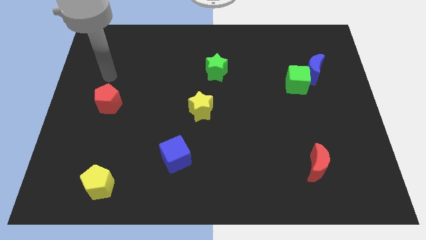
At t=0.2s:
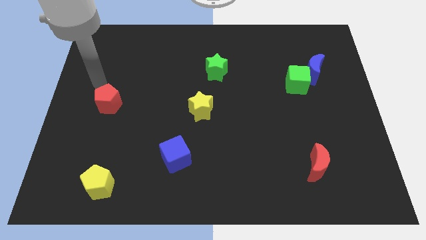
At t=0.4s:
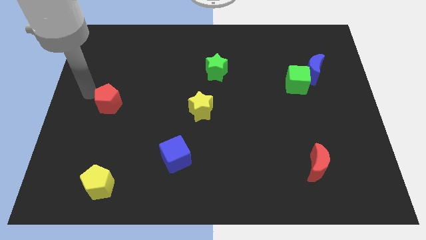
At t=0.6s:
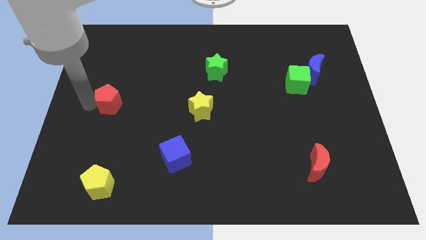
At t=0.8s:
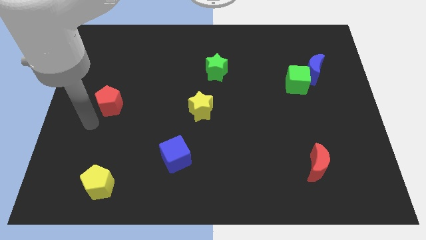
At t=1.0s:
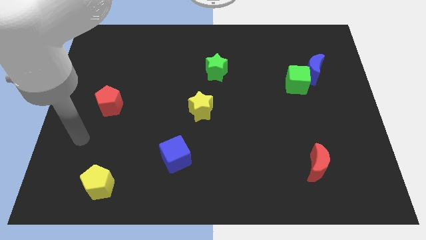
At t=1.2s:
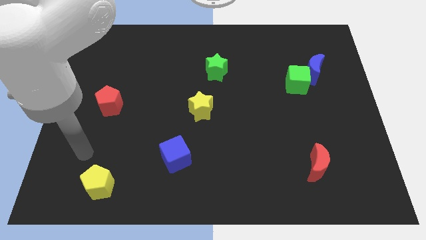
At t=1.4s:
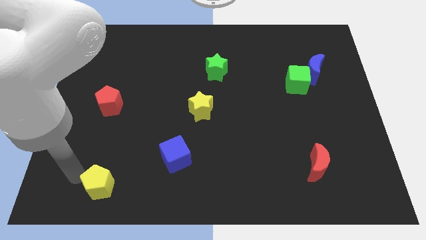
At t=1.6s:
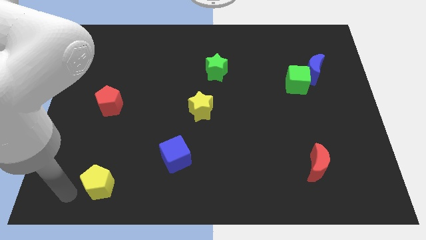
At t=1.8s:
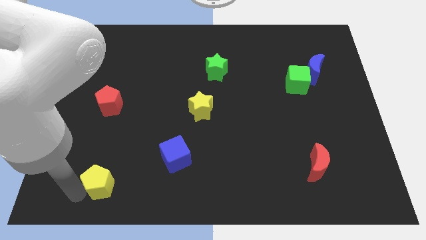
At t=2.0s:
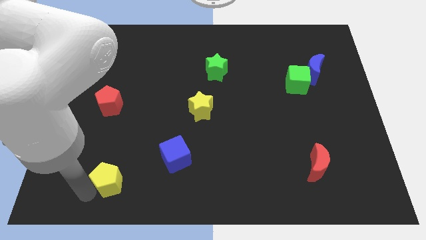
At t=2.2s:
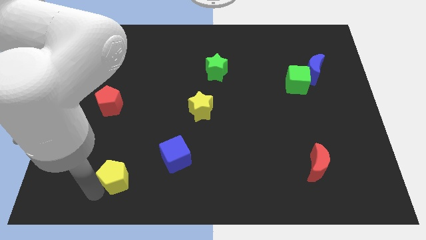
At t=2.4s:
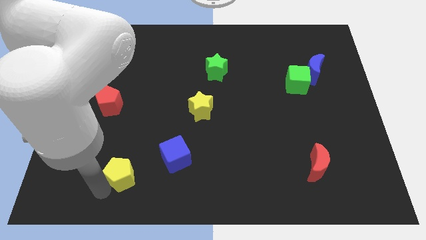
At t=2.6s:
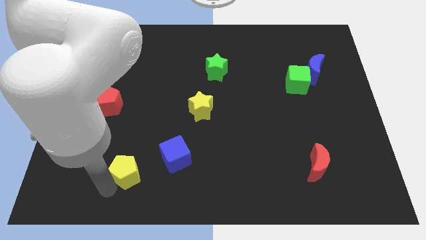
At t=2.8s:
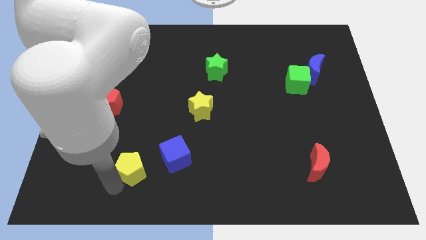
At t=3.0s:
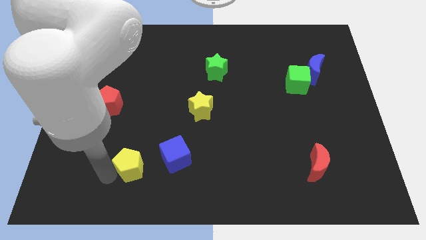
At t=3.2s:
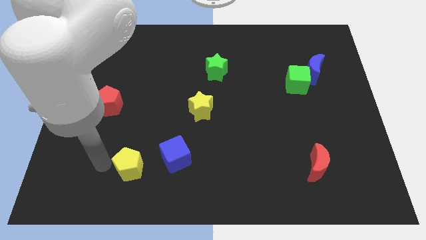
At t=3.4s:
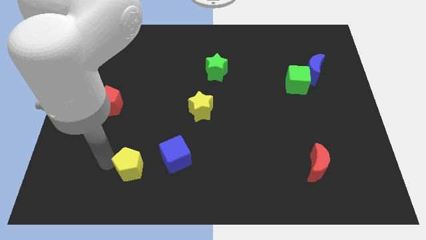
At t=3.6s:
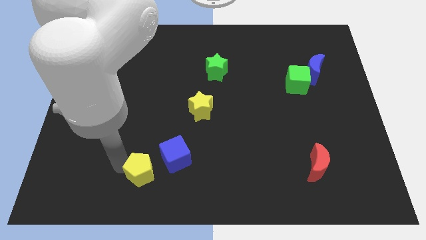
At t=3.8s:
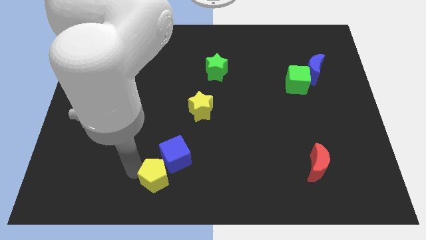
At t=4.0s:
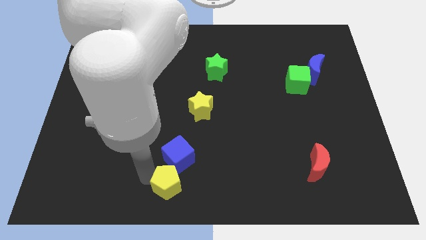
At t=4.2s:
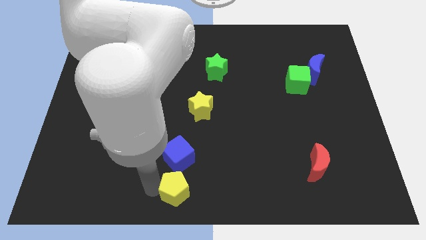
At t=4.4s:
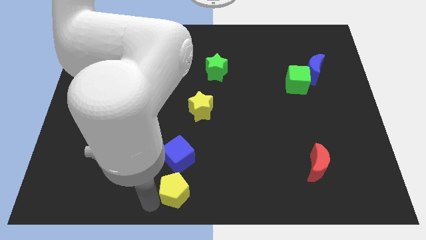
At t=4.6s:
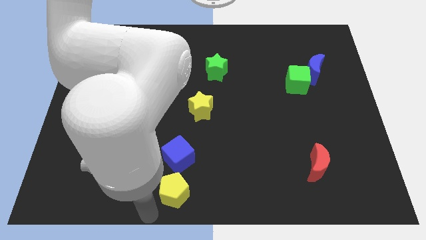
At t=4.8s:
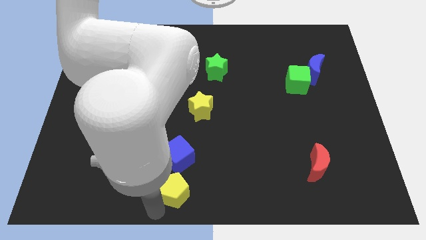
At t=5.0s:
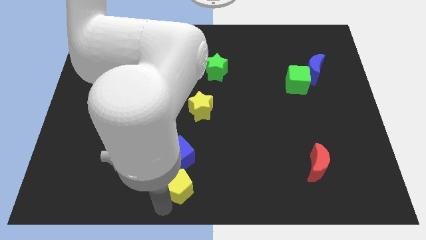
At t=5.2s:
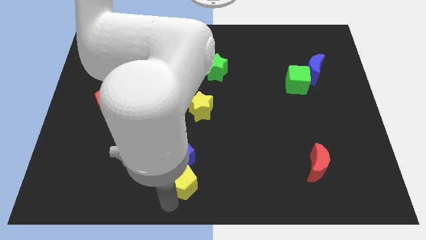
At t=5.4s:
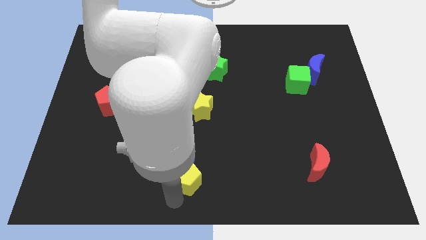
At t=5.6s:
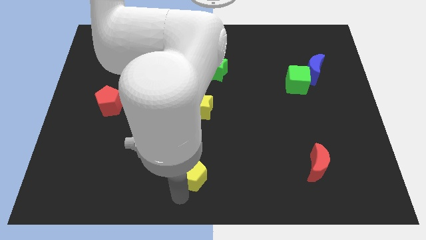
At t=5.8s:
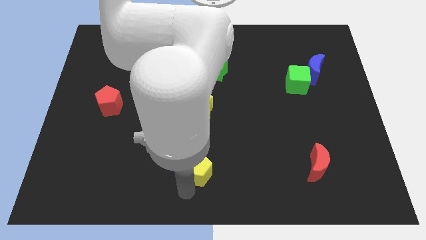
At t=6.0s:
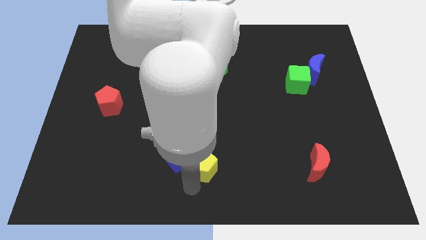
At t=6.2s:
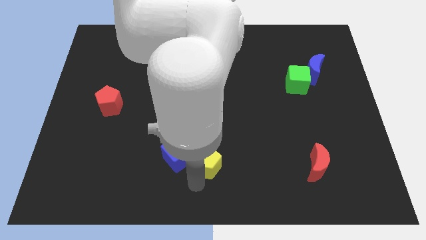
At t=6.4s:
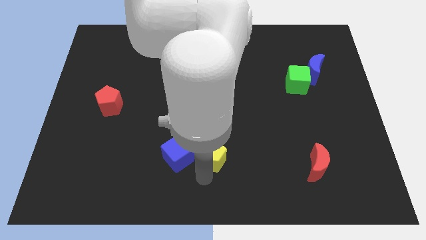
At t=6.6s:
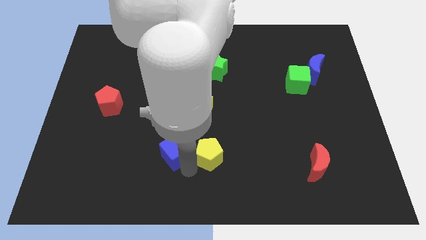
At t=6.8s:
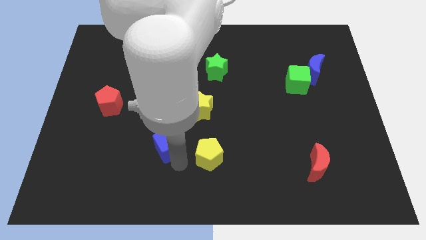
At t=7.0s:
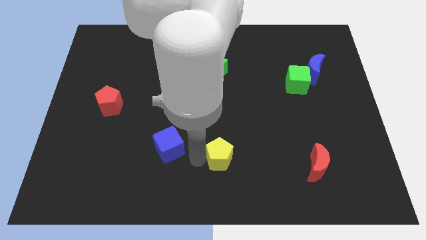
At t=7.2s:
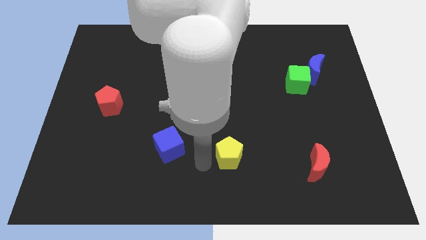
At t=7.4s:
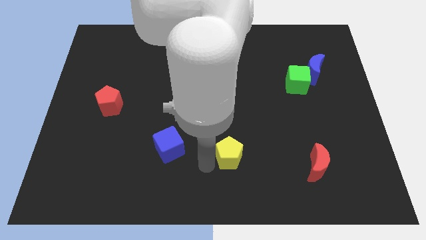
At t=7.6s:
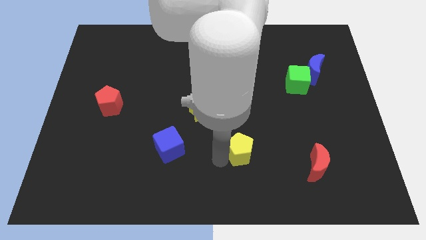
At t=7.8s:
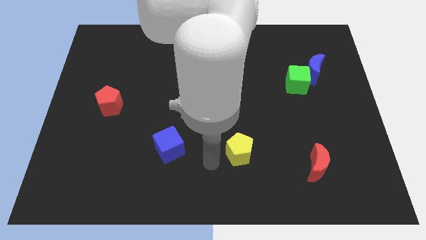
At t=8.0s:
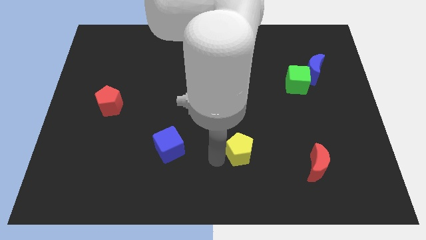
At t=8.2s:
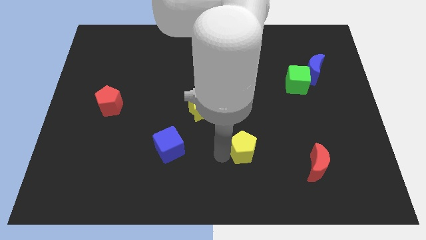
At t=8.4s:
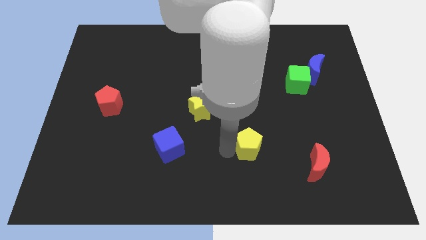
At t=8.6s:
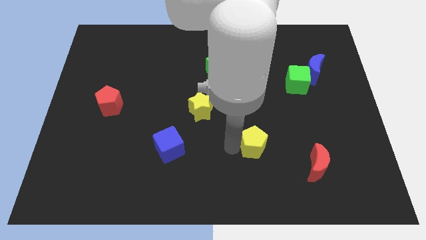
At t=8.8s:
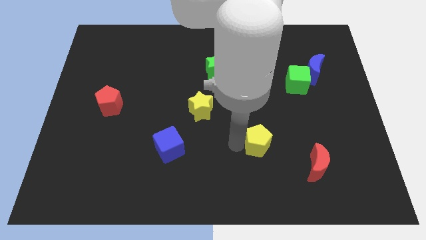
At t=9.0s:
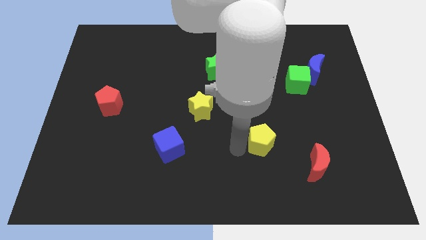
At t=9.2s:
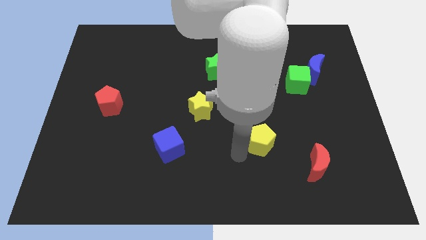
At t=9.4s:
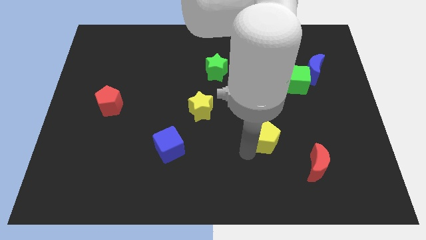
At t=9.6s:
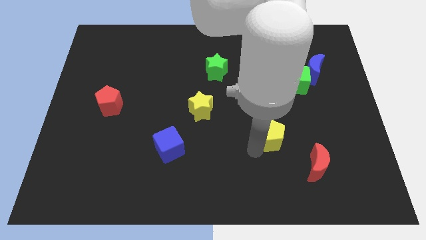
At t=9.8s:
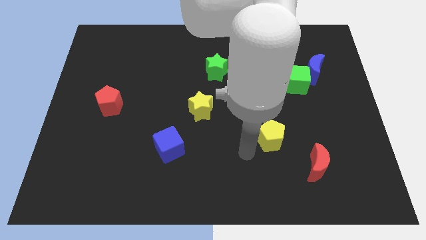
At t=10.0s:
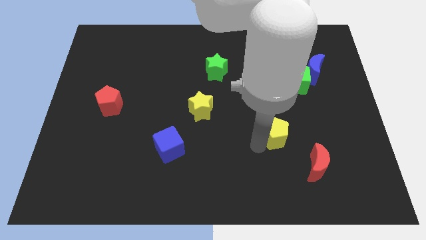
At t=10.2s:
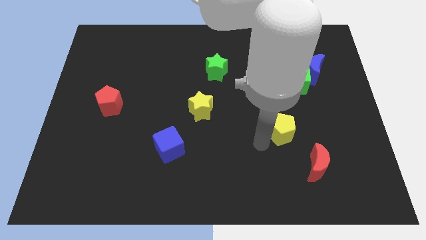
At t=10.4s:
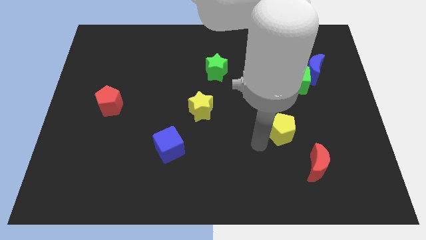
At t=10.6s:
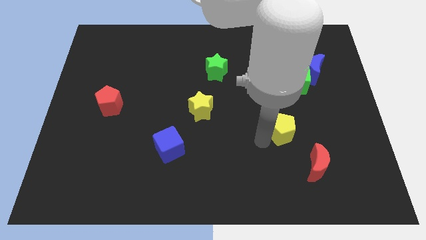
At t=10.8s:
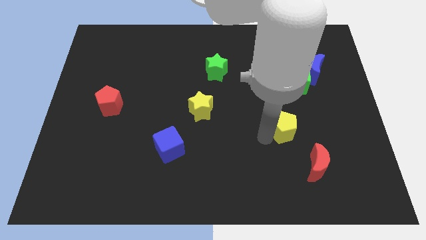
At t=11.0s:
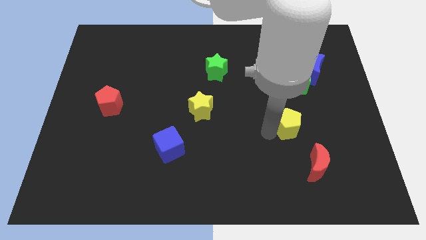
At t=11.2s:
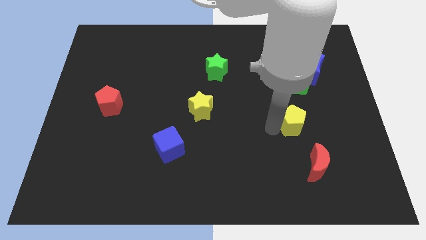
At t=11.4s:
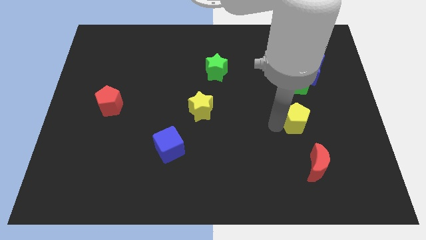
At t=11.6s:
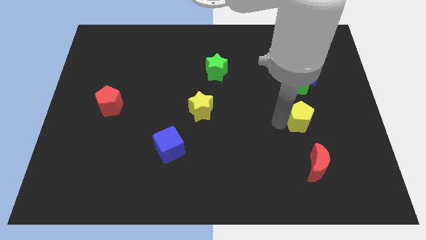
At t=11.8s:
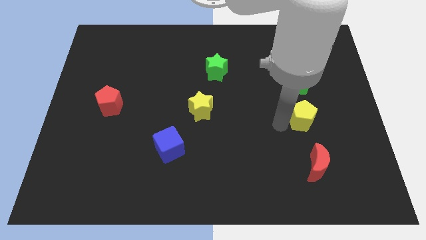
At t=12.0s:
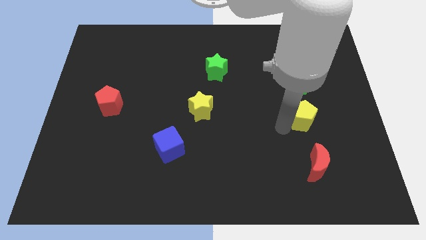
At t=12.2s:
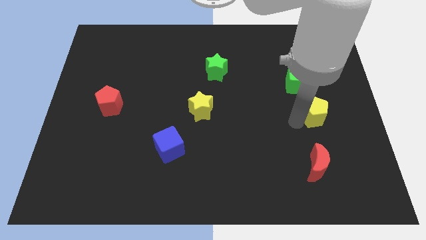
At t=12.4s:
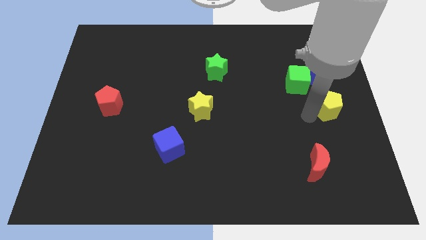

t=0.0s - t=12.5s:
push the yellow pentagon to the right side of the board

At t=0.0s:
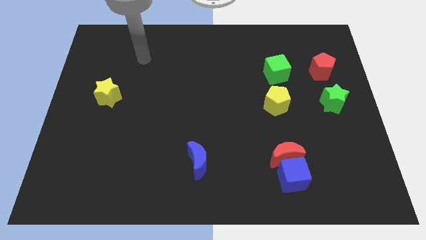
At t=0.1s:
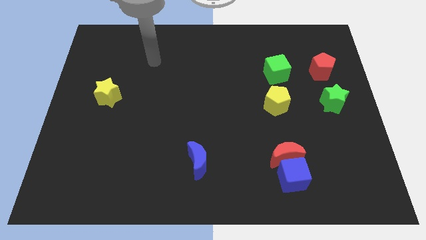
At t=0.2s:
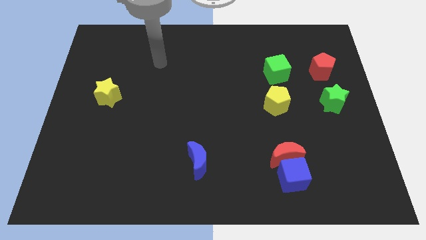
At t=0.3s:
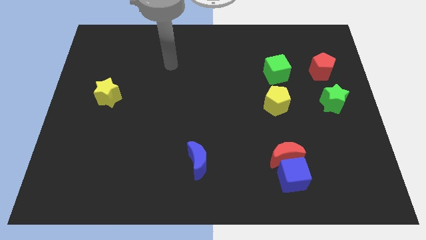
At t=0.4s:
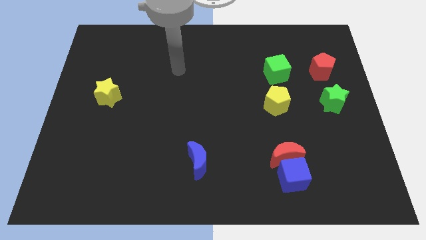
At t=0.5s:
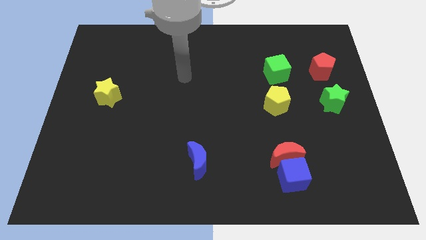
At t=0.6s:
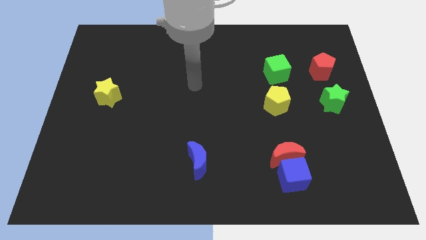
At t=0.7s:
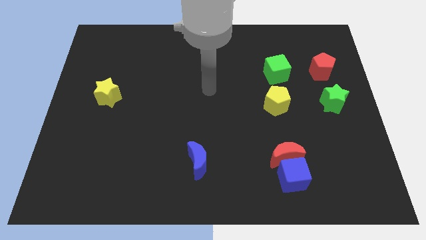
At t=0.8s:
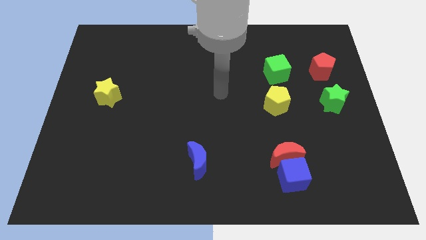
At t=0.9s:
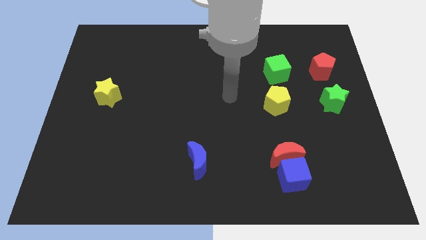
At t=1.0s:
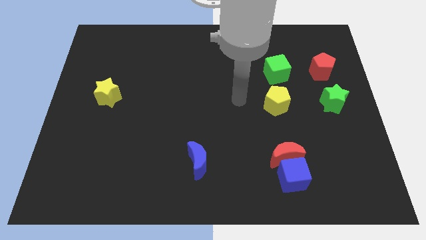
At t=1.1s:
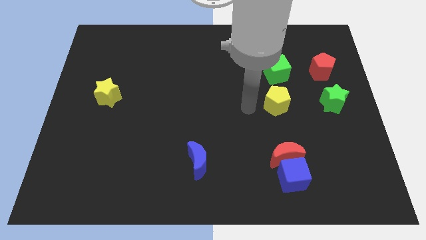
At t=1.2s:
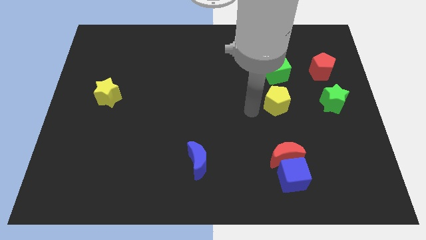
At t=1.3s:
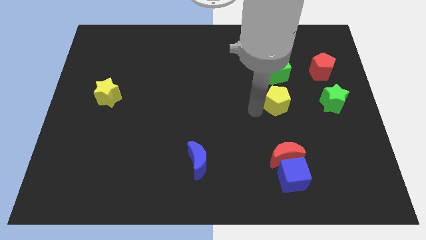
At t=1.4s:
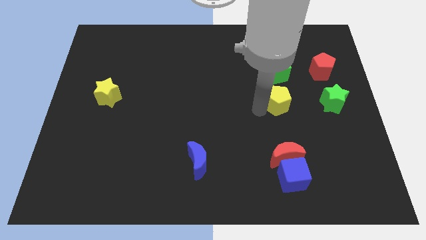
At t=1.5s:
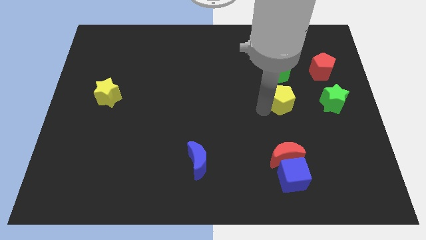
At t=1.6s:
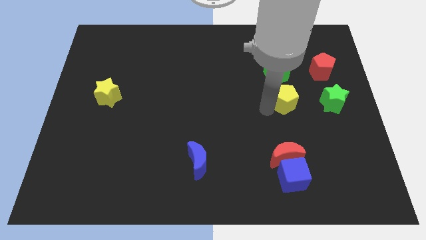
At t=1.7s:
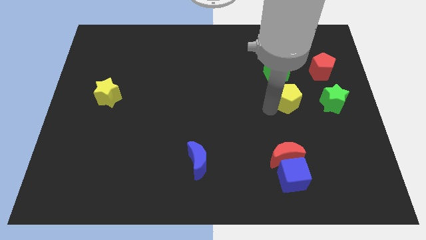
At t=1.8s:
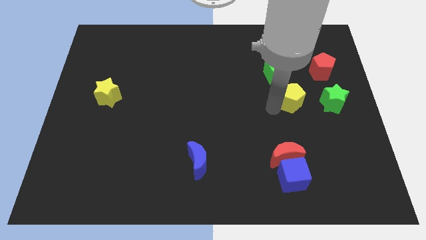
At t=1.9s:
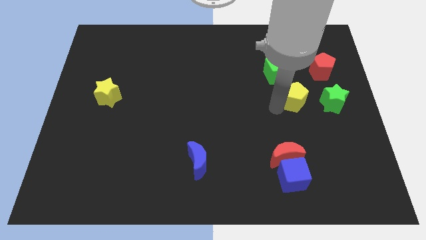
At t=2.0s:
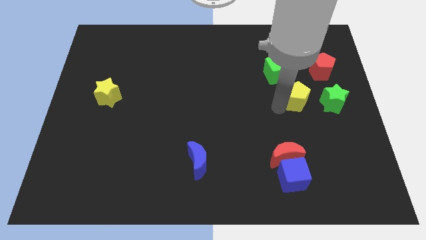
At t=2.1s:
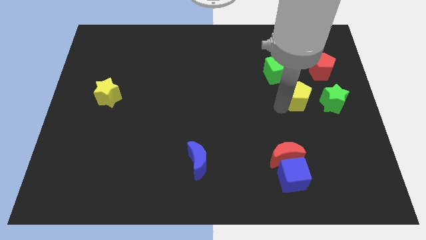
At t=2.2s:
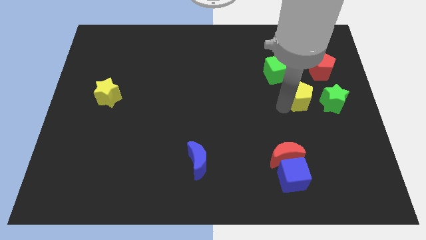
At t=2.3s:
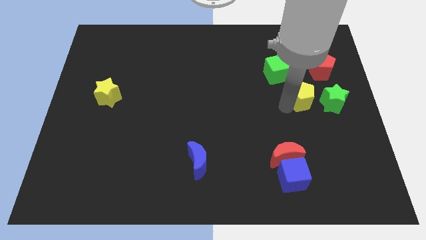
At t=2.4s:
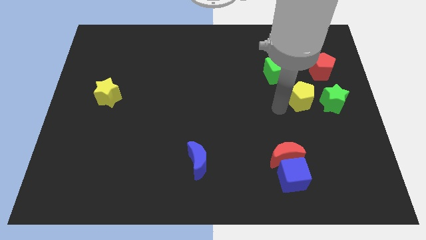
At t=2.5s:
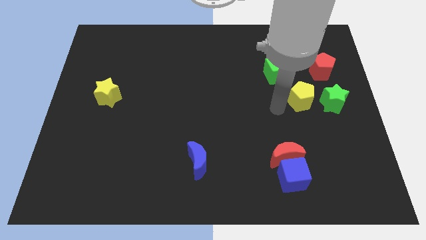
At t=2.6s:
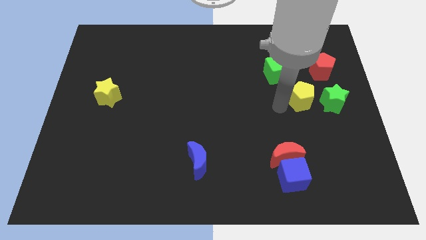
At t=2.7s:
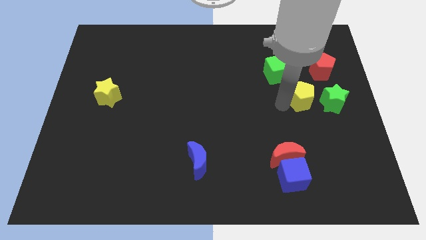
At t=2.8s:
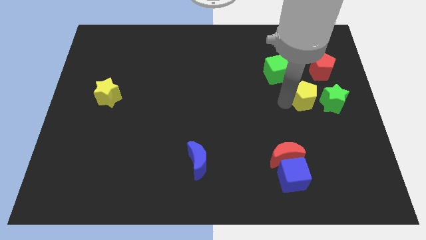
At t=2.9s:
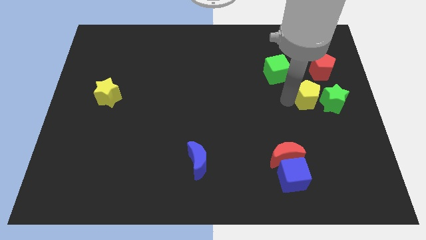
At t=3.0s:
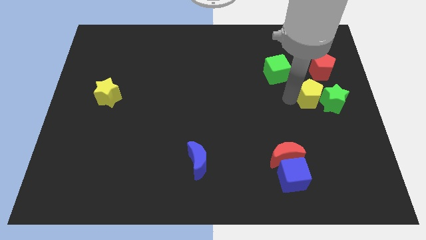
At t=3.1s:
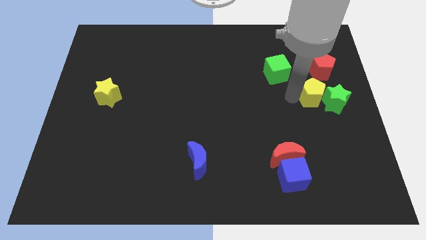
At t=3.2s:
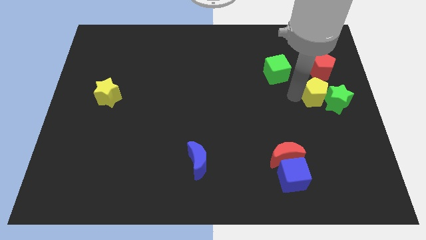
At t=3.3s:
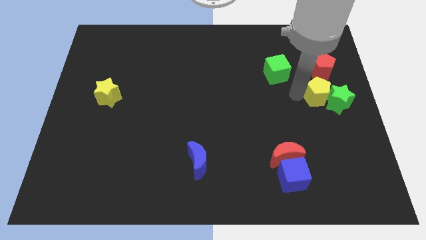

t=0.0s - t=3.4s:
move the yellow pentagon to the right side of the board
